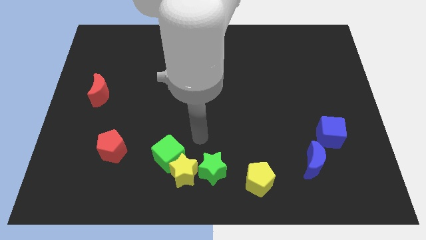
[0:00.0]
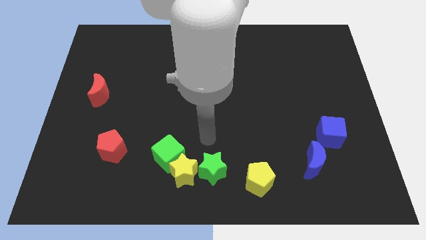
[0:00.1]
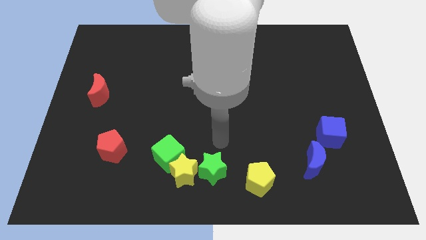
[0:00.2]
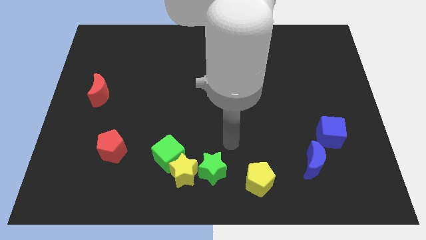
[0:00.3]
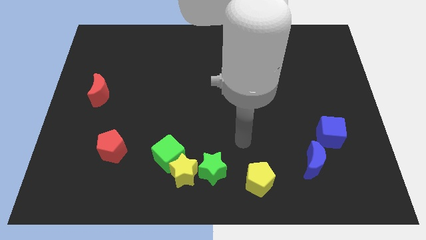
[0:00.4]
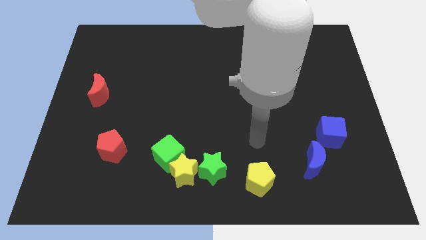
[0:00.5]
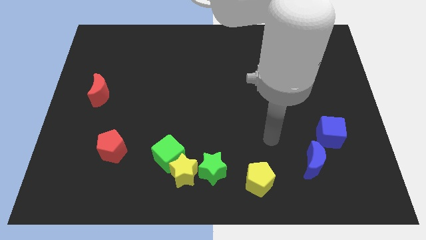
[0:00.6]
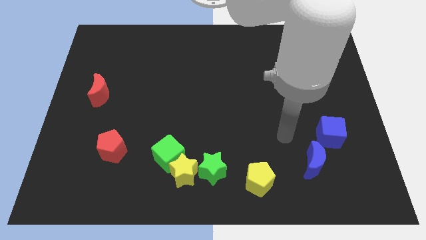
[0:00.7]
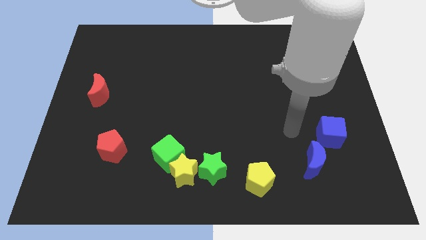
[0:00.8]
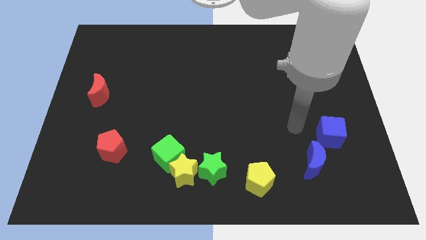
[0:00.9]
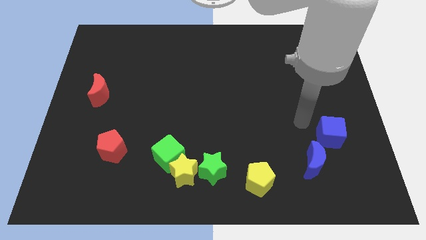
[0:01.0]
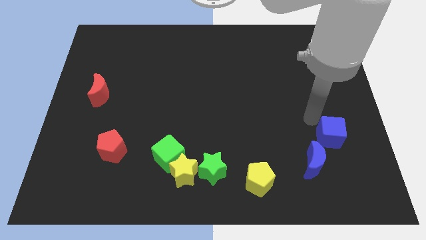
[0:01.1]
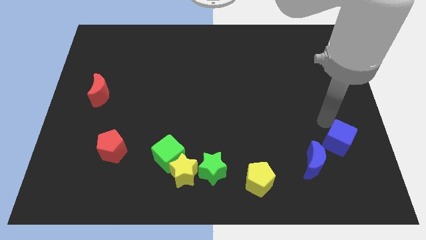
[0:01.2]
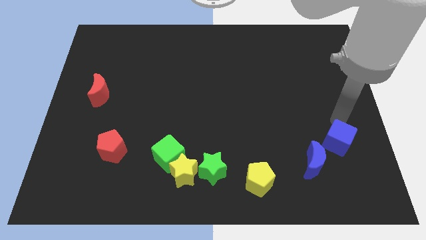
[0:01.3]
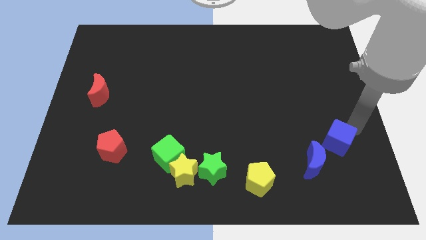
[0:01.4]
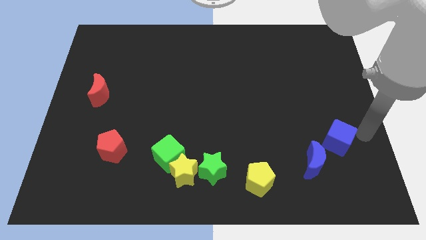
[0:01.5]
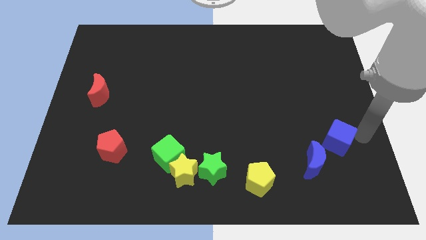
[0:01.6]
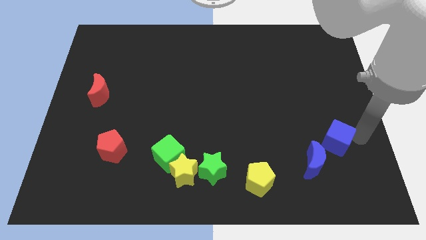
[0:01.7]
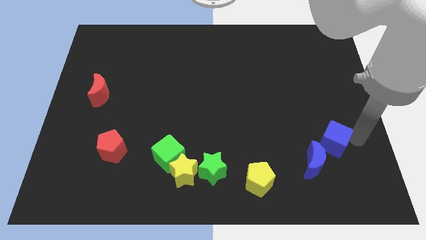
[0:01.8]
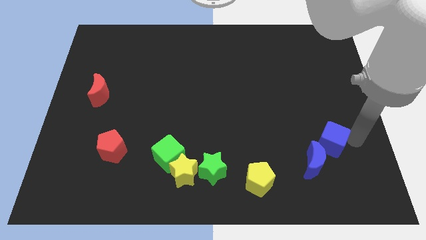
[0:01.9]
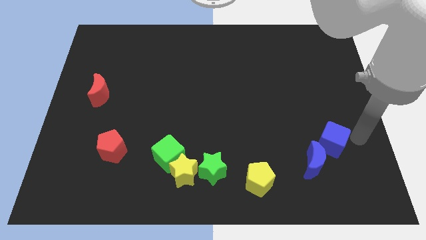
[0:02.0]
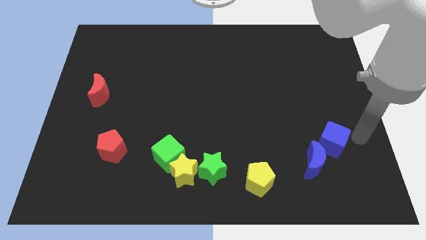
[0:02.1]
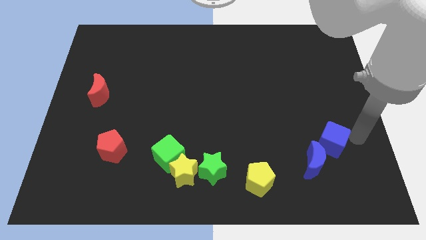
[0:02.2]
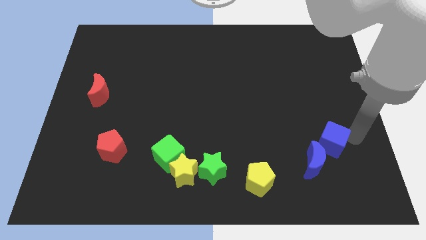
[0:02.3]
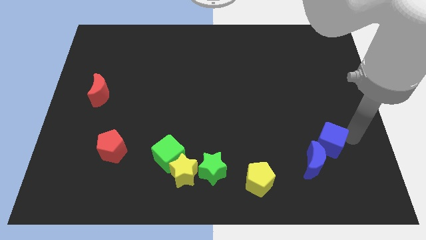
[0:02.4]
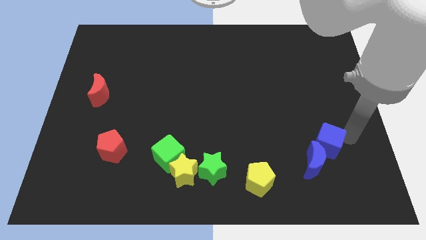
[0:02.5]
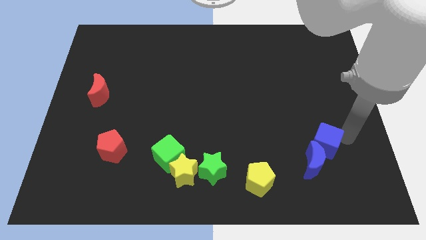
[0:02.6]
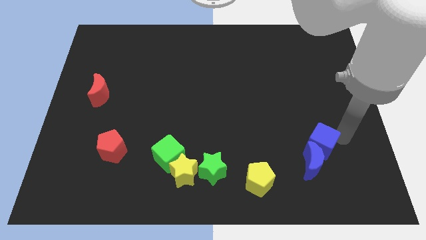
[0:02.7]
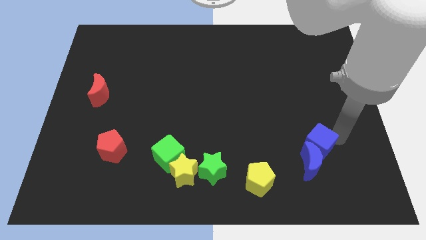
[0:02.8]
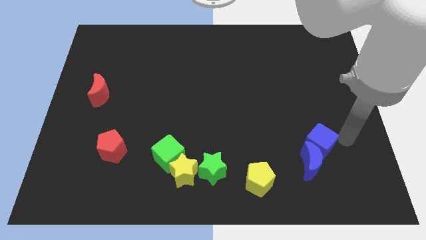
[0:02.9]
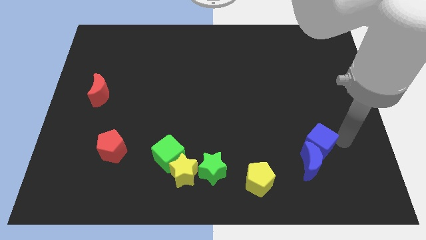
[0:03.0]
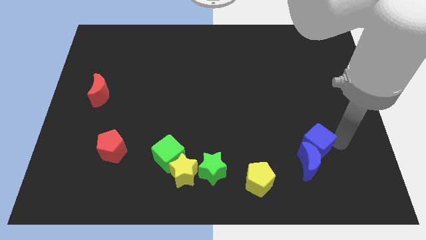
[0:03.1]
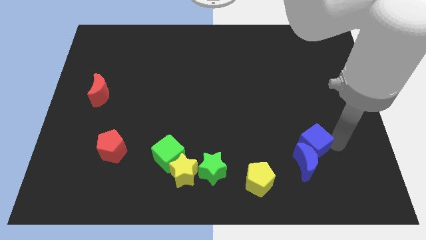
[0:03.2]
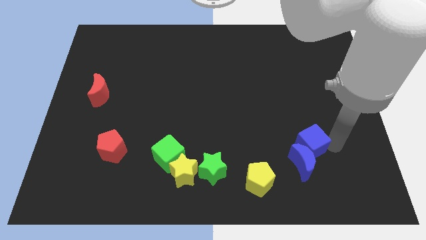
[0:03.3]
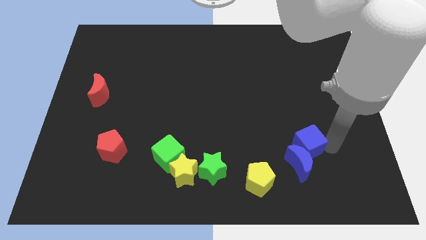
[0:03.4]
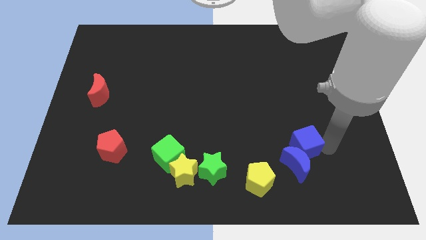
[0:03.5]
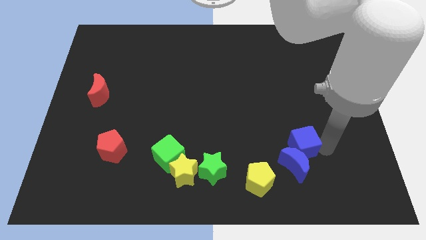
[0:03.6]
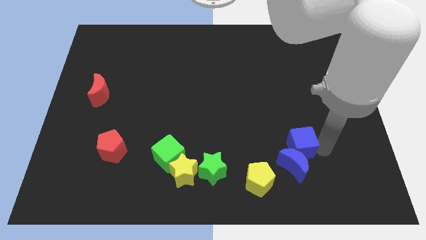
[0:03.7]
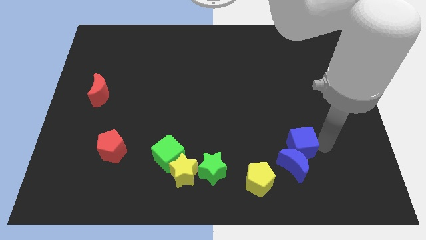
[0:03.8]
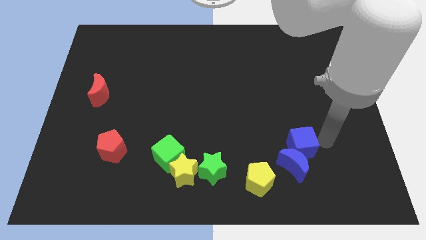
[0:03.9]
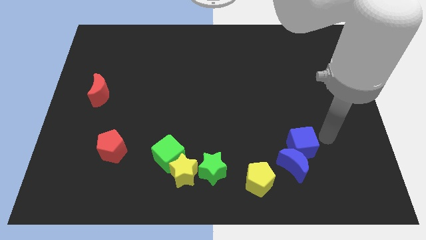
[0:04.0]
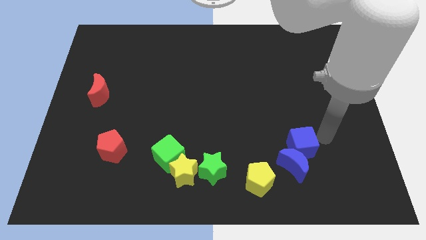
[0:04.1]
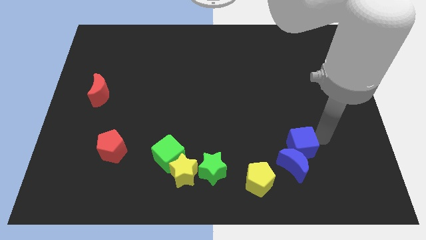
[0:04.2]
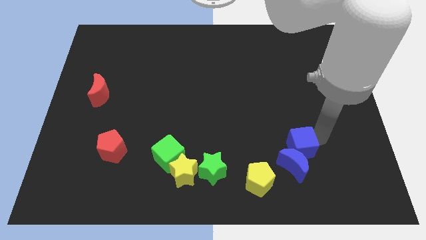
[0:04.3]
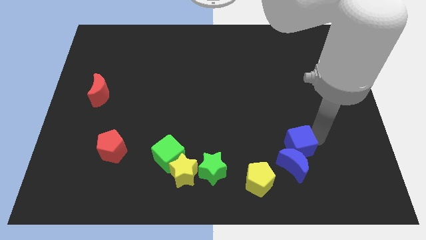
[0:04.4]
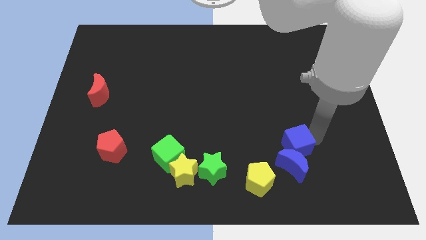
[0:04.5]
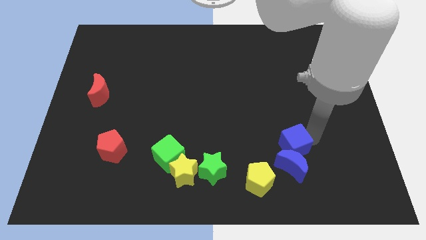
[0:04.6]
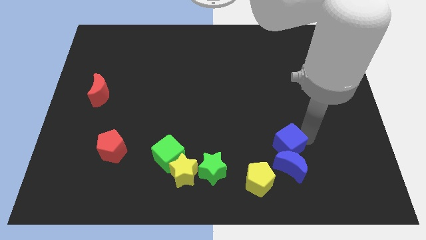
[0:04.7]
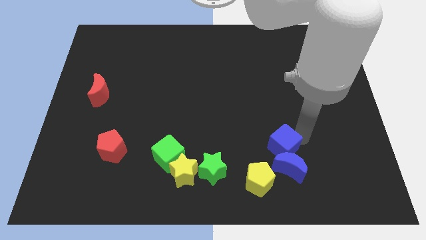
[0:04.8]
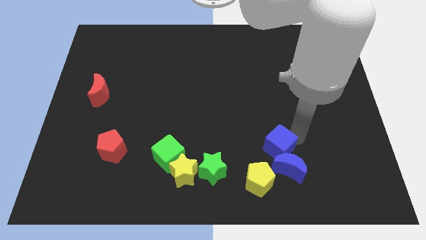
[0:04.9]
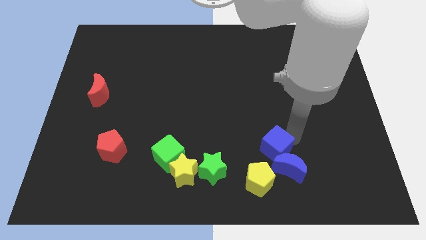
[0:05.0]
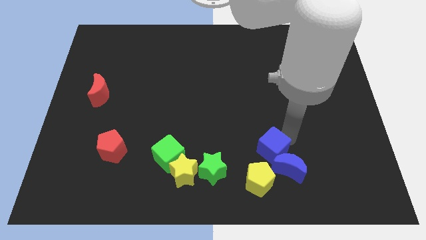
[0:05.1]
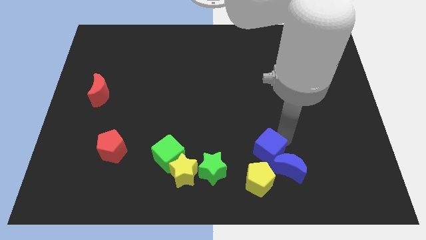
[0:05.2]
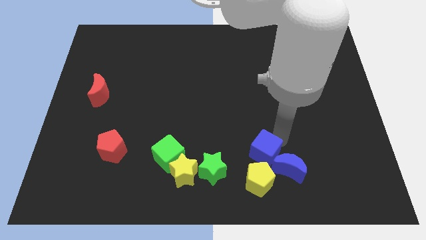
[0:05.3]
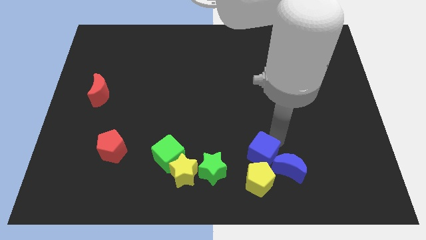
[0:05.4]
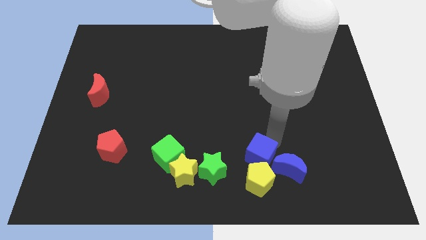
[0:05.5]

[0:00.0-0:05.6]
move the blue cube next to the yellow pentagon

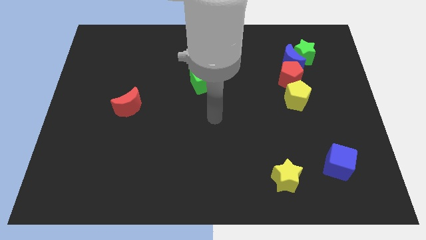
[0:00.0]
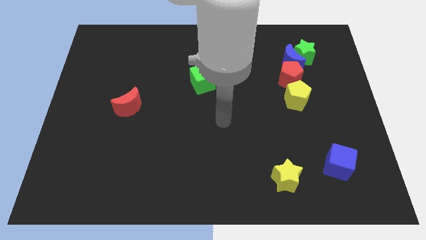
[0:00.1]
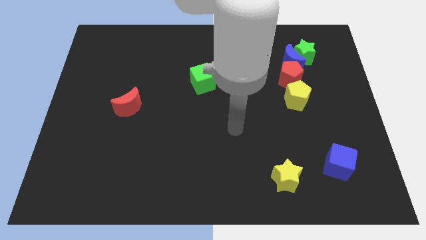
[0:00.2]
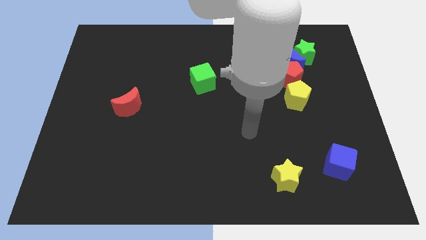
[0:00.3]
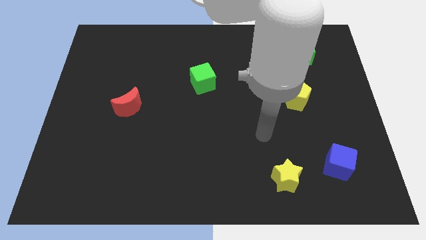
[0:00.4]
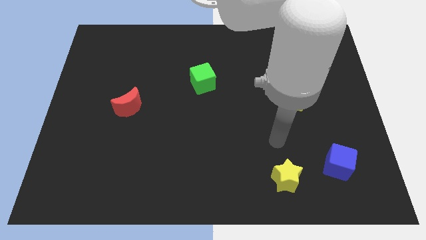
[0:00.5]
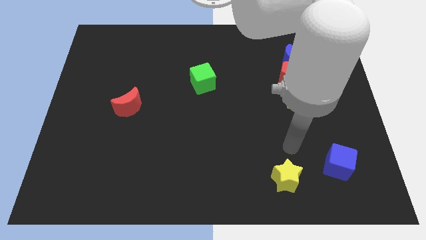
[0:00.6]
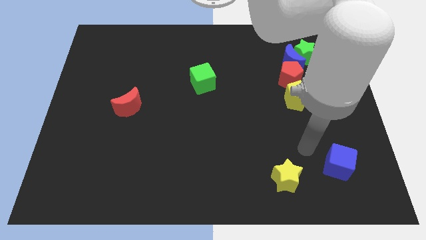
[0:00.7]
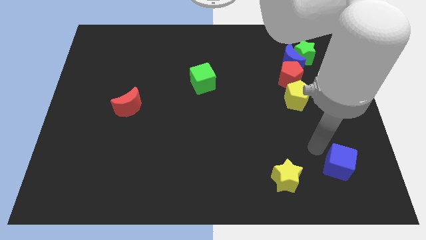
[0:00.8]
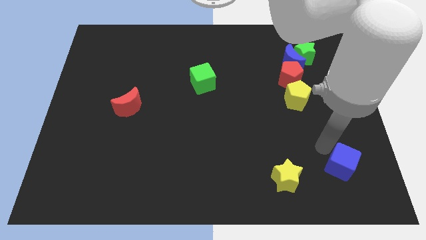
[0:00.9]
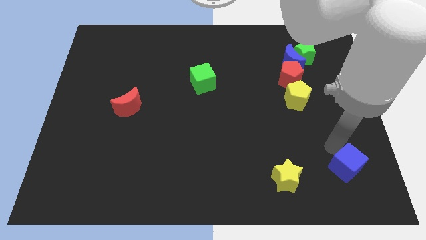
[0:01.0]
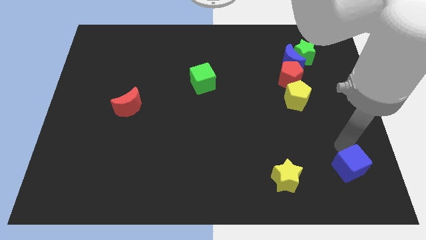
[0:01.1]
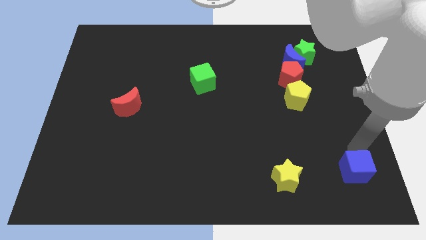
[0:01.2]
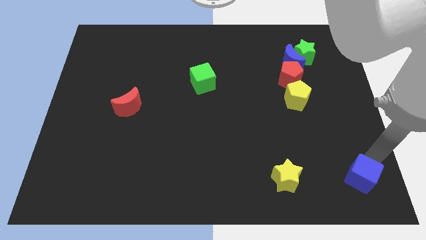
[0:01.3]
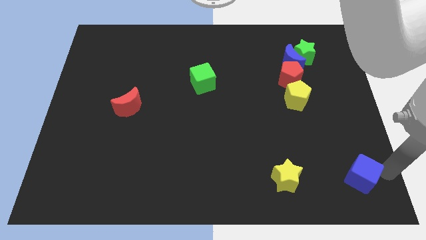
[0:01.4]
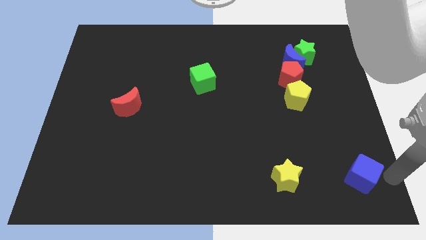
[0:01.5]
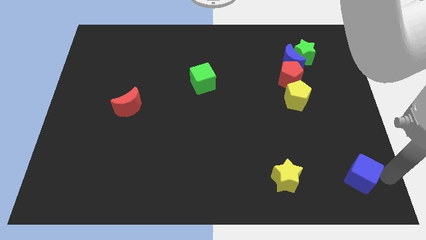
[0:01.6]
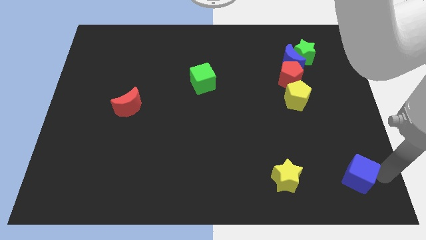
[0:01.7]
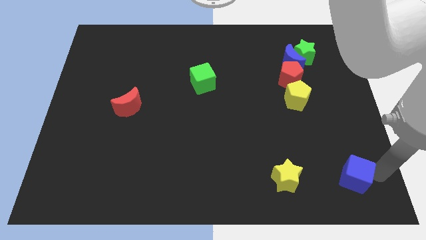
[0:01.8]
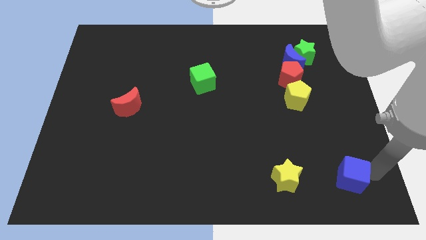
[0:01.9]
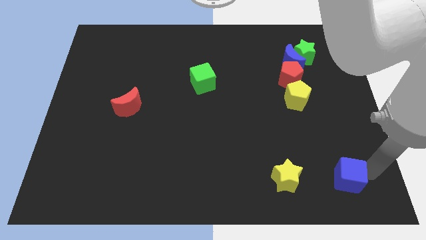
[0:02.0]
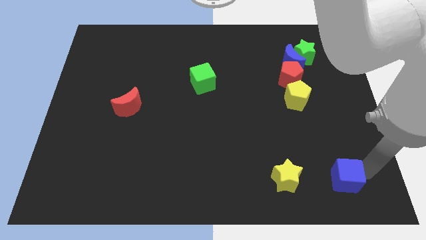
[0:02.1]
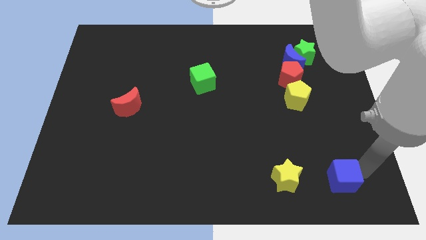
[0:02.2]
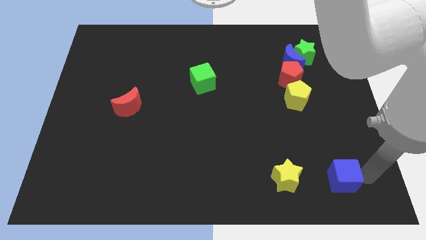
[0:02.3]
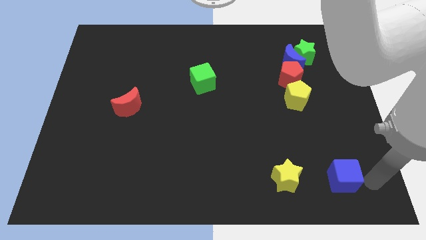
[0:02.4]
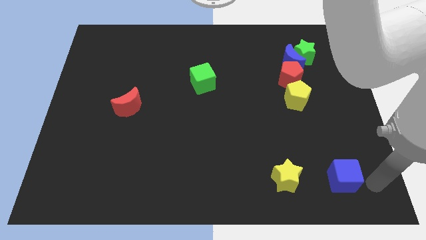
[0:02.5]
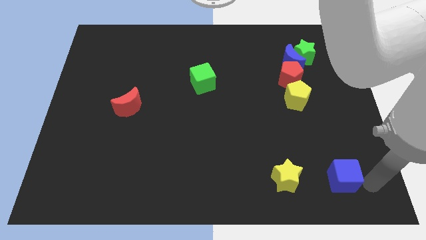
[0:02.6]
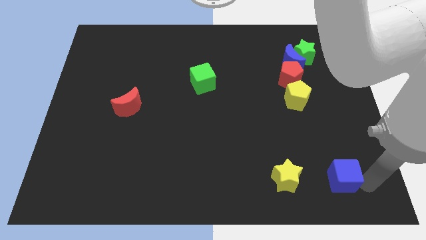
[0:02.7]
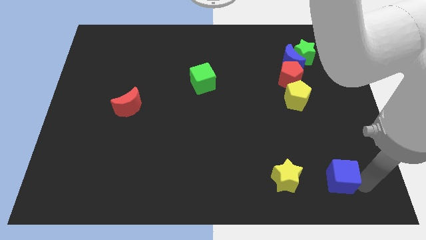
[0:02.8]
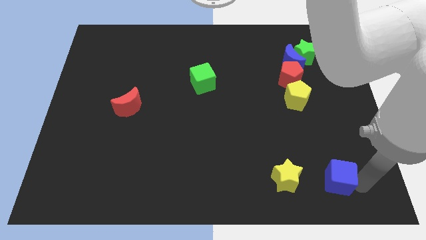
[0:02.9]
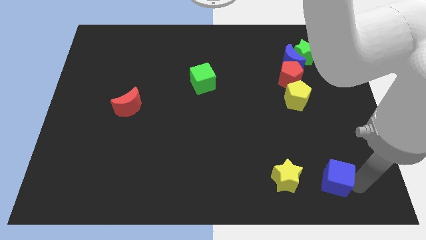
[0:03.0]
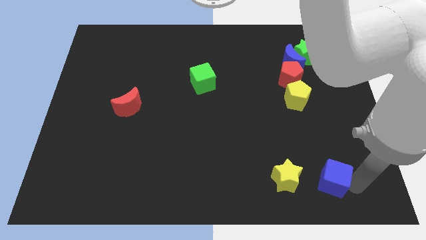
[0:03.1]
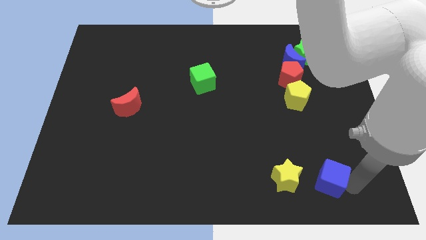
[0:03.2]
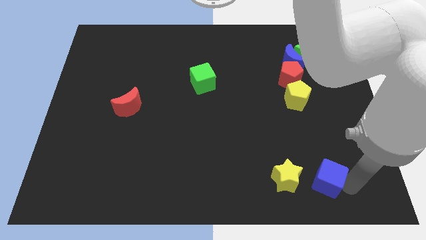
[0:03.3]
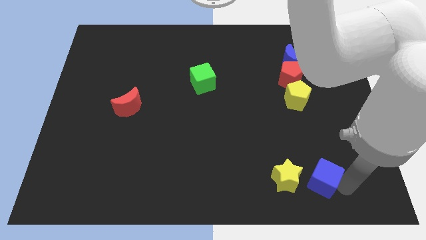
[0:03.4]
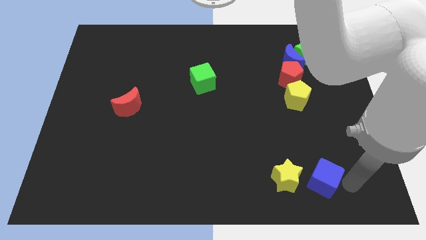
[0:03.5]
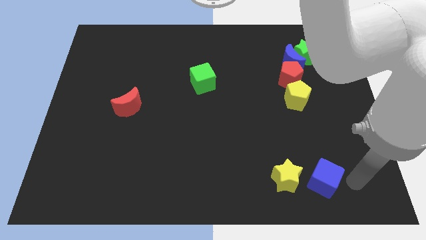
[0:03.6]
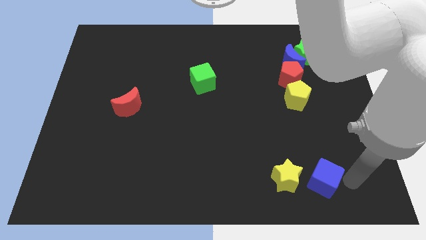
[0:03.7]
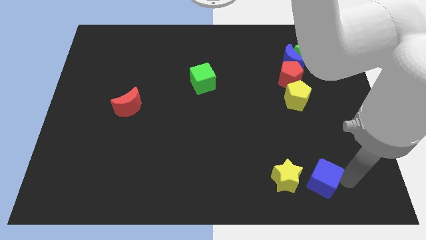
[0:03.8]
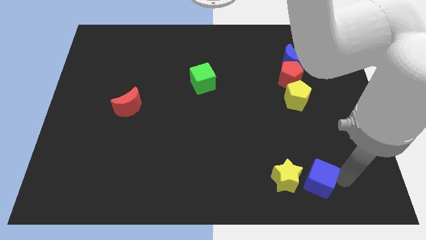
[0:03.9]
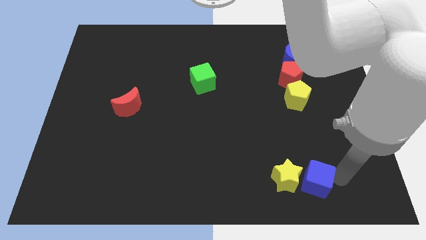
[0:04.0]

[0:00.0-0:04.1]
move the blue cube next to the yellow star
